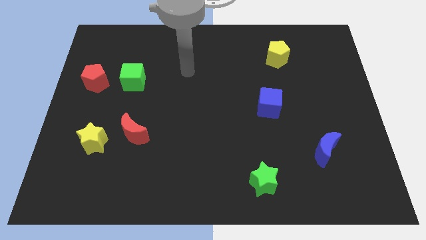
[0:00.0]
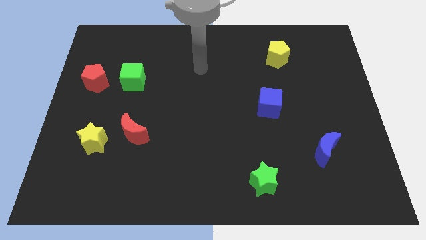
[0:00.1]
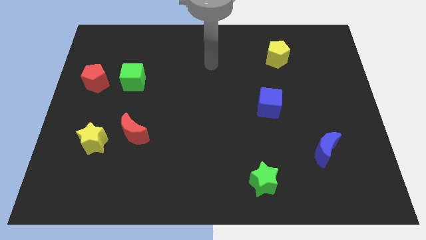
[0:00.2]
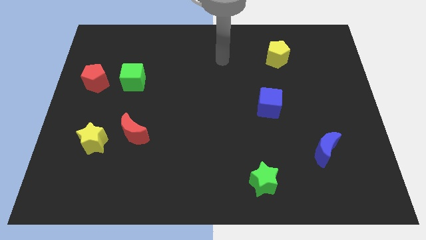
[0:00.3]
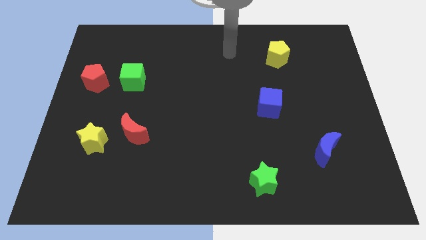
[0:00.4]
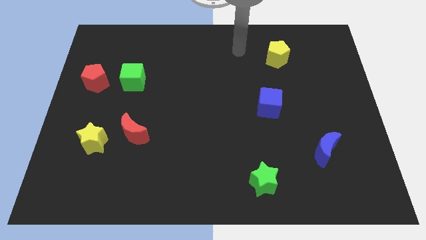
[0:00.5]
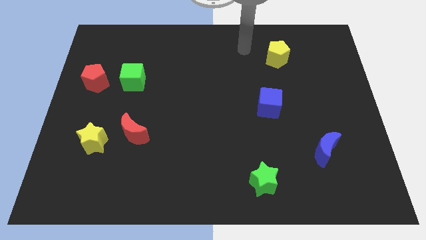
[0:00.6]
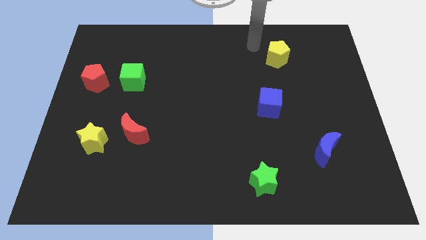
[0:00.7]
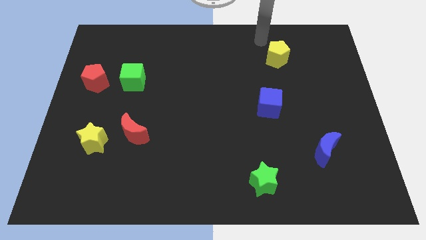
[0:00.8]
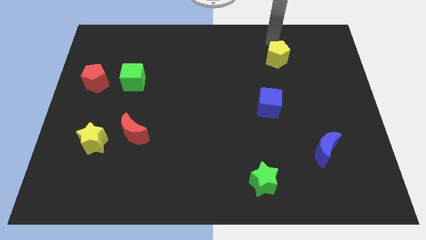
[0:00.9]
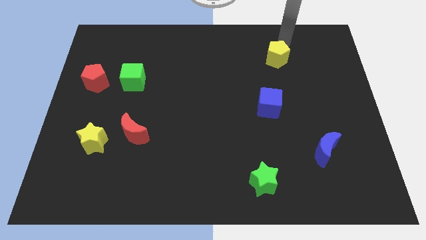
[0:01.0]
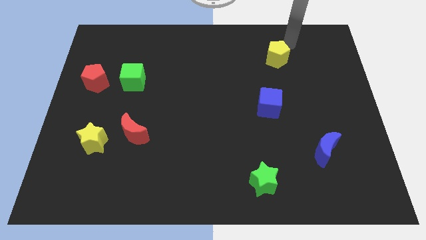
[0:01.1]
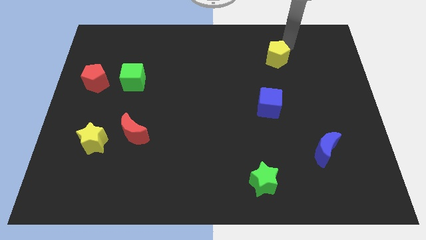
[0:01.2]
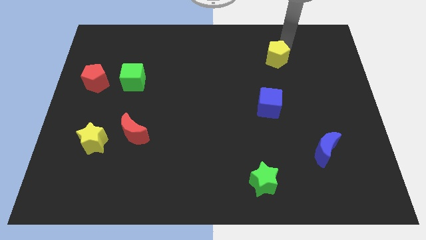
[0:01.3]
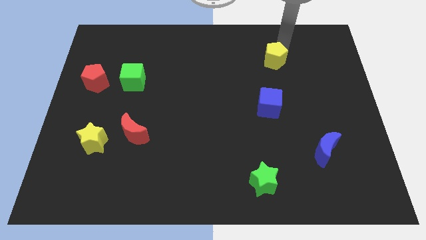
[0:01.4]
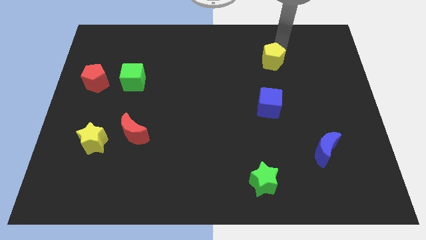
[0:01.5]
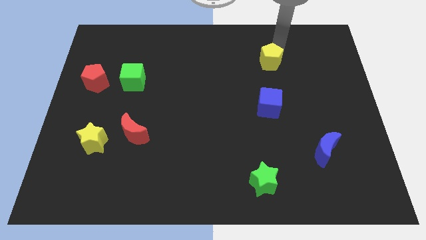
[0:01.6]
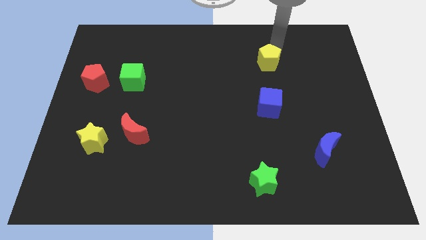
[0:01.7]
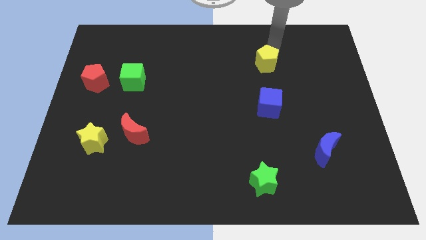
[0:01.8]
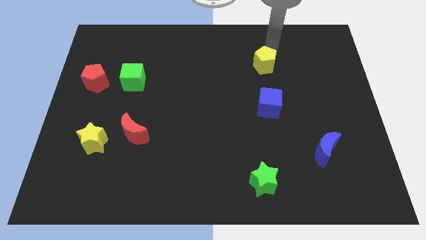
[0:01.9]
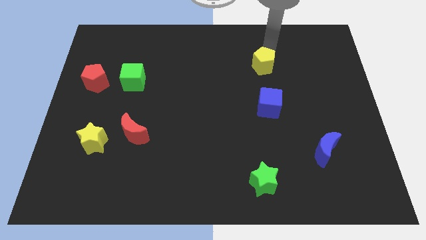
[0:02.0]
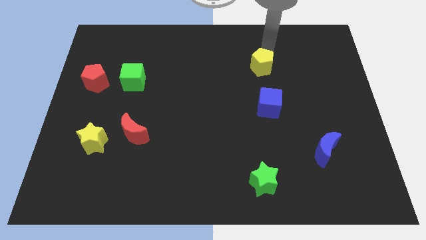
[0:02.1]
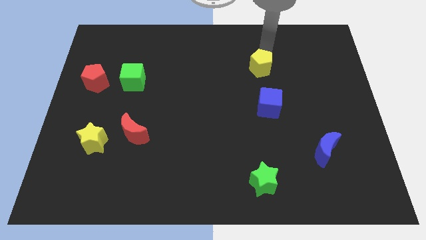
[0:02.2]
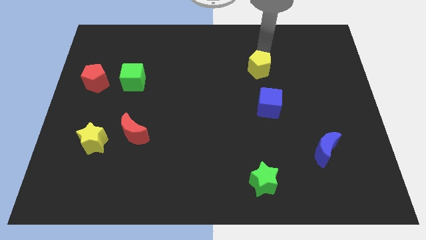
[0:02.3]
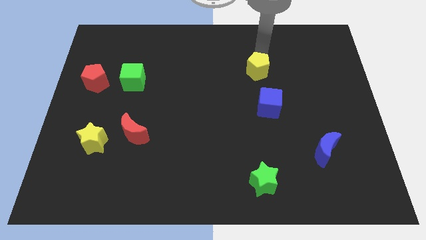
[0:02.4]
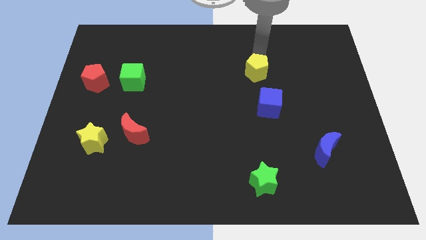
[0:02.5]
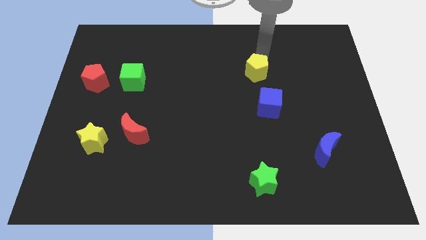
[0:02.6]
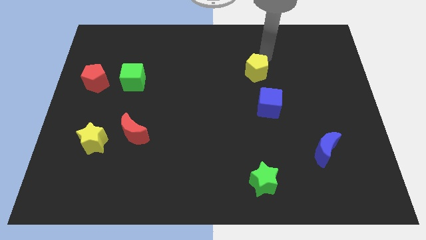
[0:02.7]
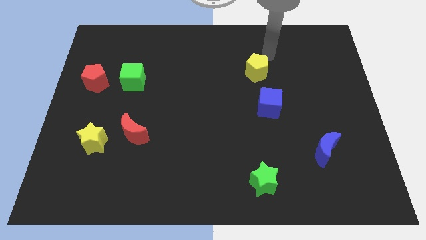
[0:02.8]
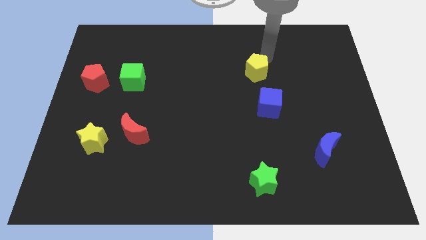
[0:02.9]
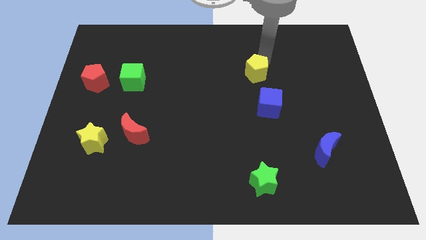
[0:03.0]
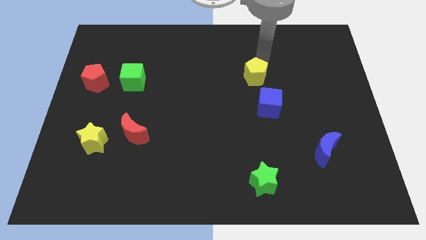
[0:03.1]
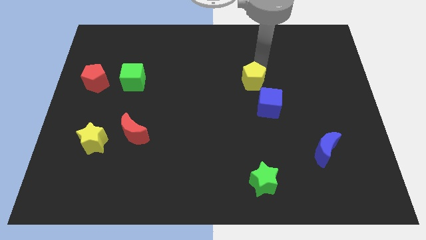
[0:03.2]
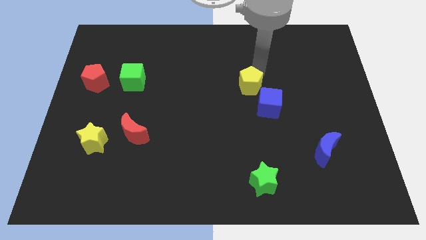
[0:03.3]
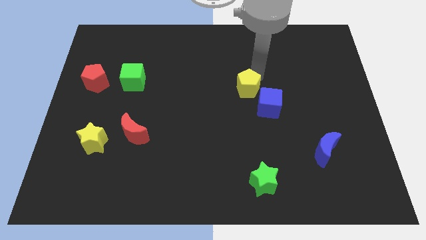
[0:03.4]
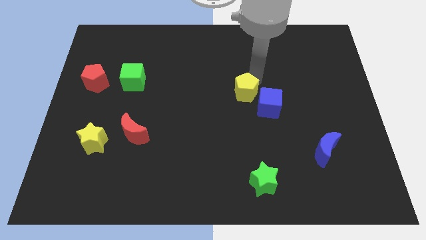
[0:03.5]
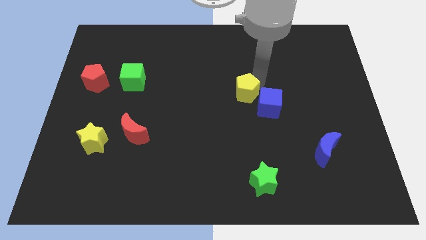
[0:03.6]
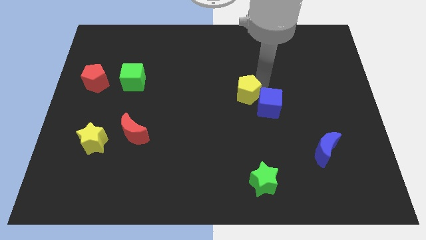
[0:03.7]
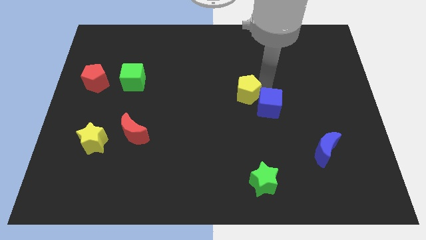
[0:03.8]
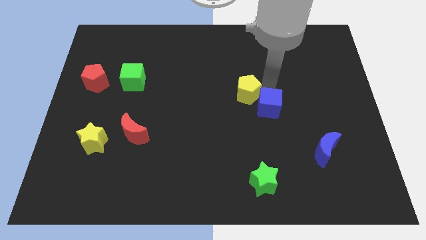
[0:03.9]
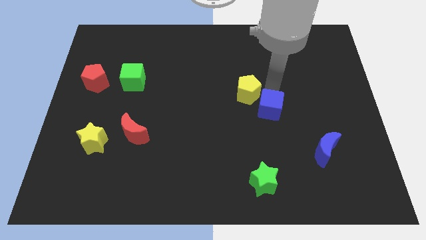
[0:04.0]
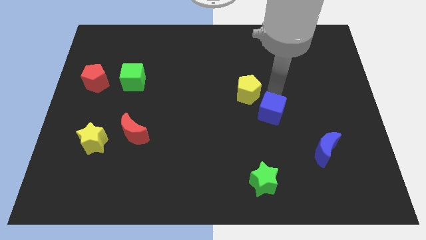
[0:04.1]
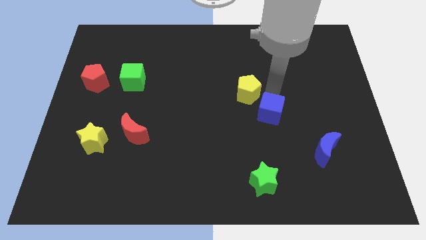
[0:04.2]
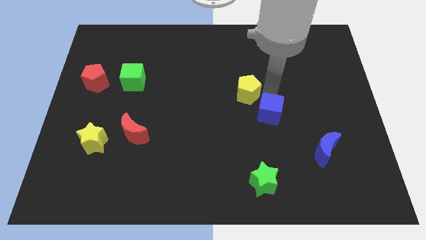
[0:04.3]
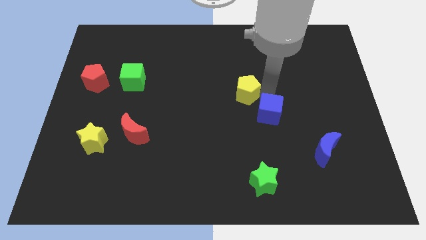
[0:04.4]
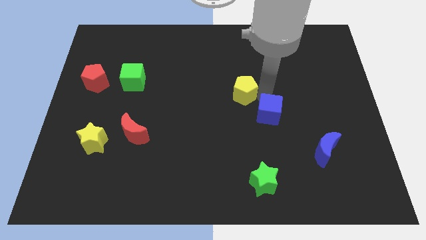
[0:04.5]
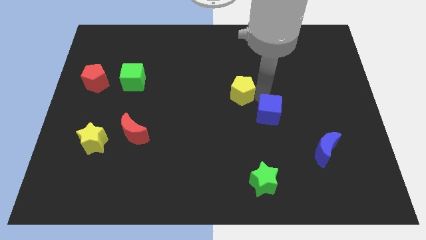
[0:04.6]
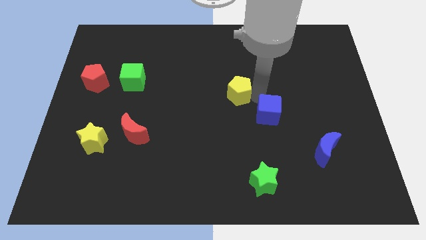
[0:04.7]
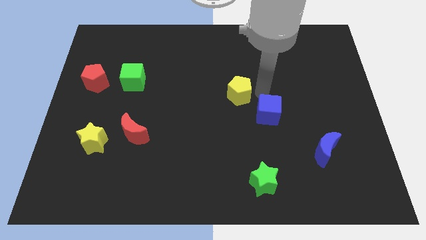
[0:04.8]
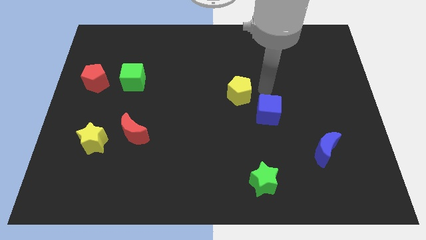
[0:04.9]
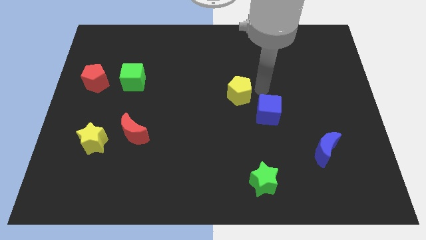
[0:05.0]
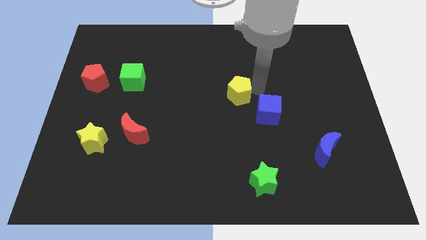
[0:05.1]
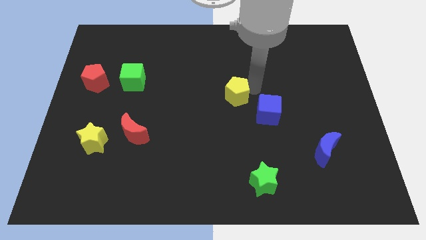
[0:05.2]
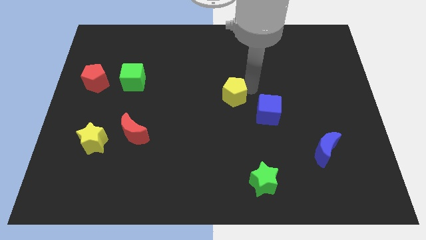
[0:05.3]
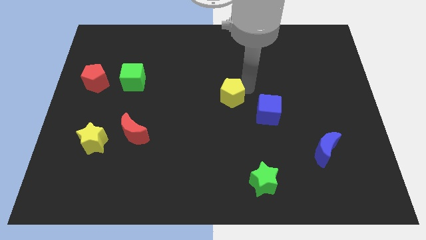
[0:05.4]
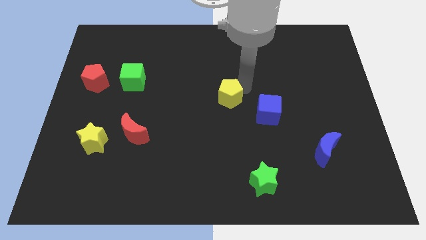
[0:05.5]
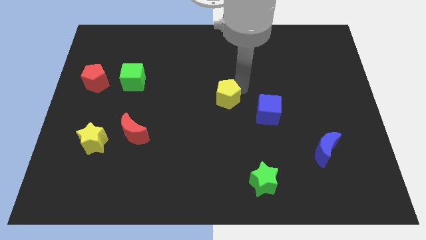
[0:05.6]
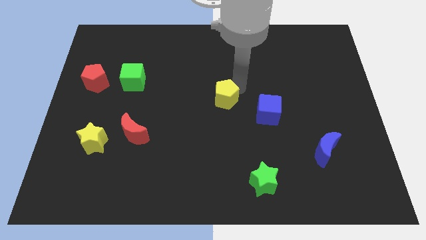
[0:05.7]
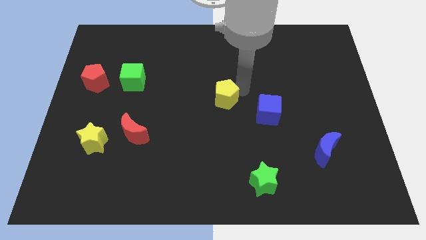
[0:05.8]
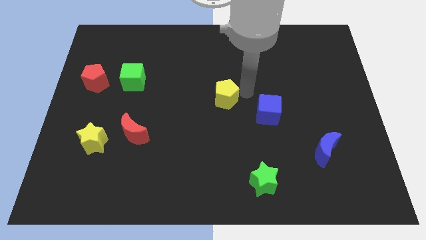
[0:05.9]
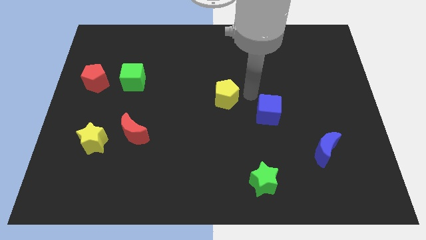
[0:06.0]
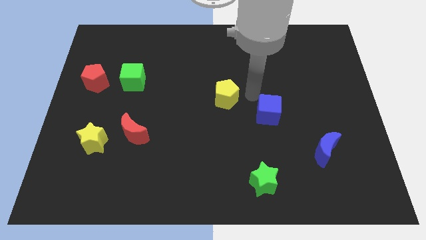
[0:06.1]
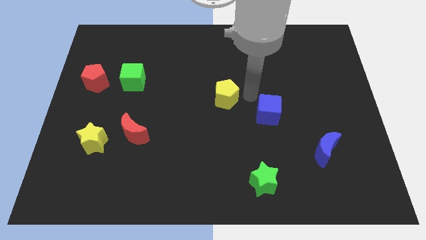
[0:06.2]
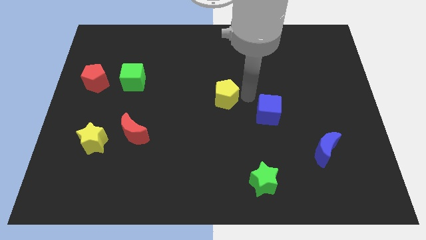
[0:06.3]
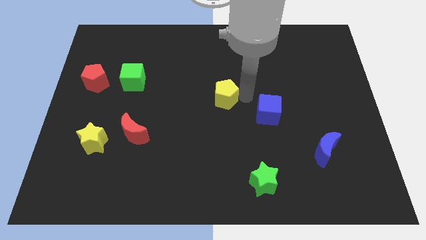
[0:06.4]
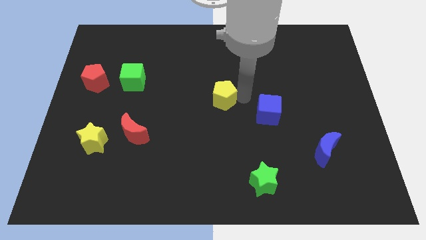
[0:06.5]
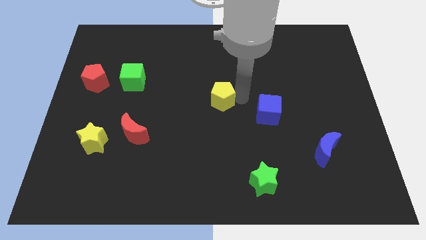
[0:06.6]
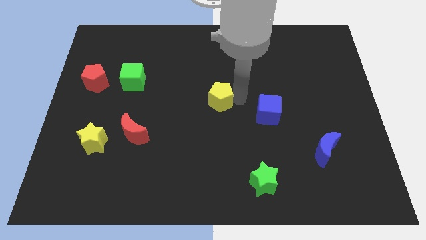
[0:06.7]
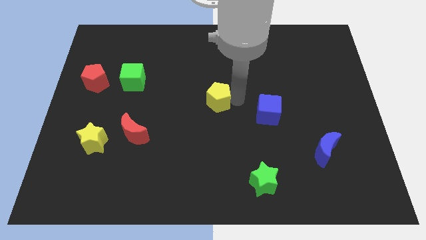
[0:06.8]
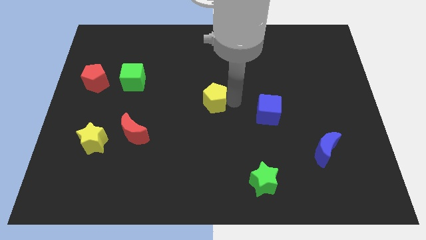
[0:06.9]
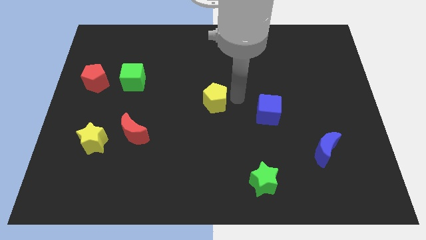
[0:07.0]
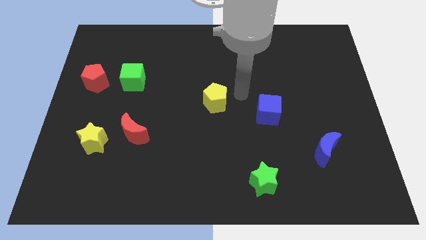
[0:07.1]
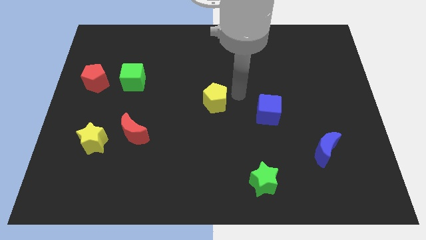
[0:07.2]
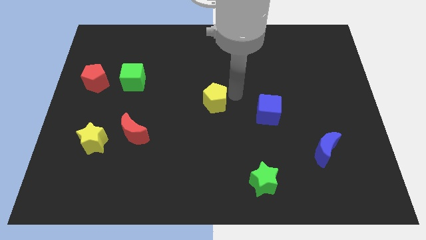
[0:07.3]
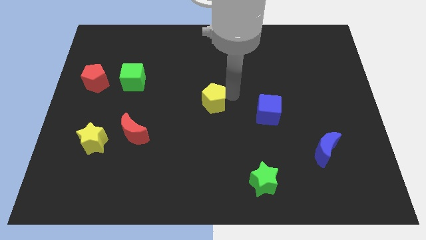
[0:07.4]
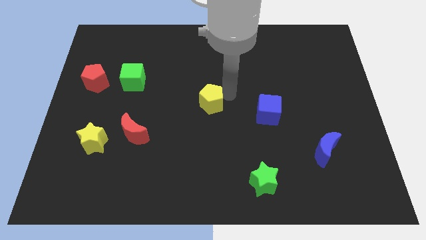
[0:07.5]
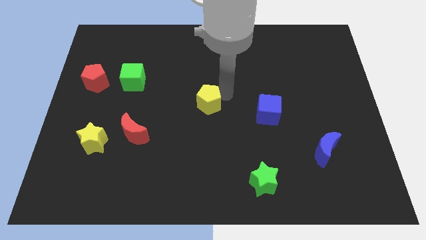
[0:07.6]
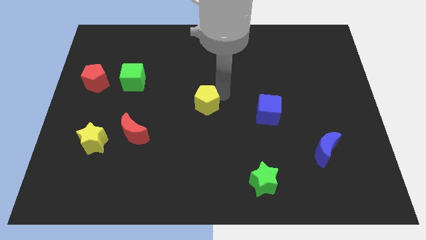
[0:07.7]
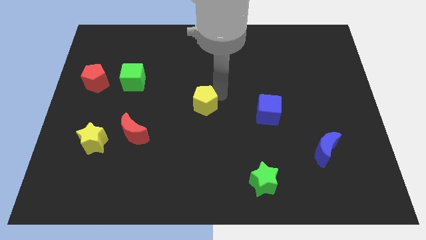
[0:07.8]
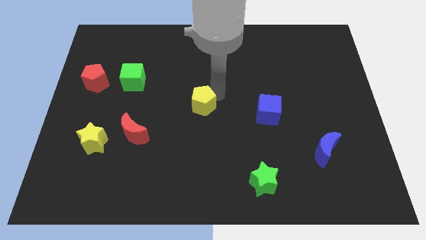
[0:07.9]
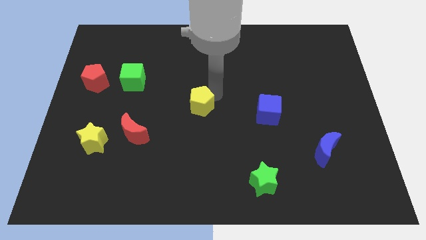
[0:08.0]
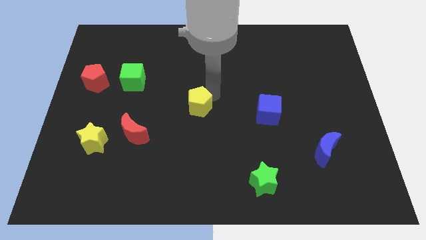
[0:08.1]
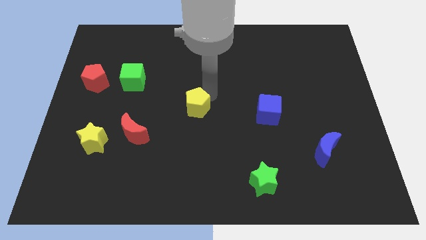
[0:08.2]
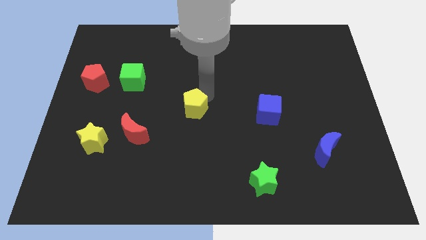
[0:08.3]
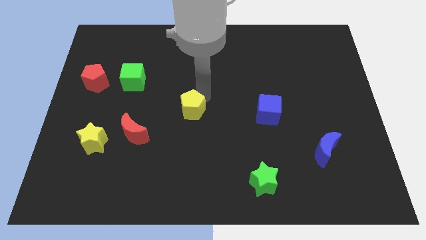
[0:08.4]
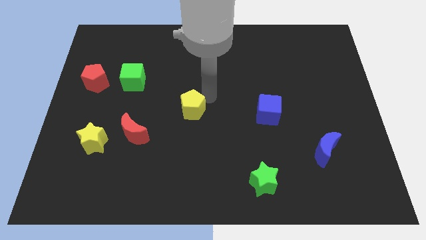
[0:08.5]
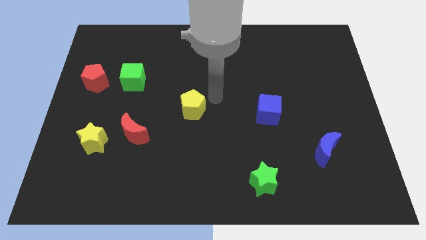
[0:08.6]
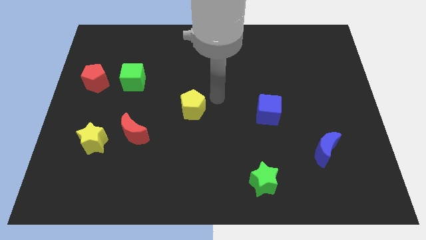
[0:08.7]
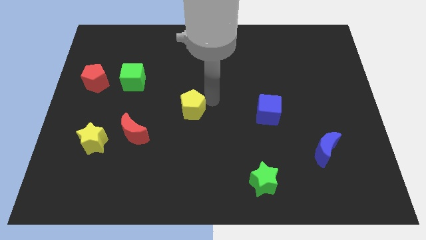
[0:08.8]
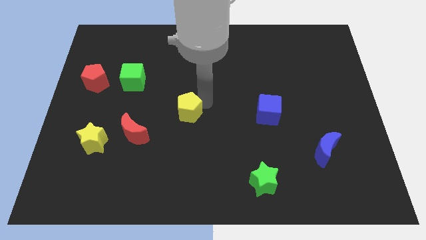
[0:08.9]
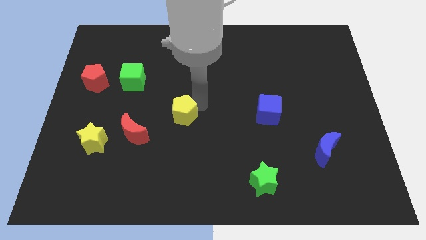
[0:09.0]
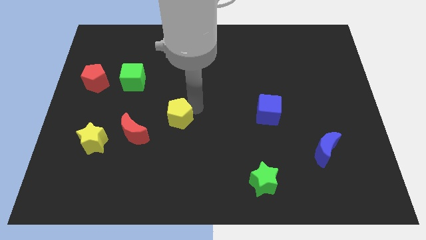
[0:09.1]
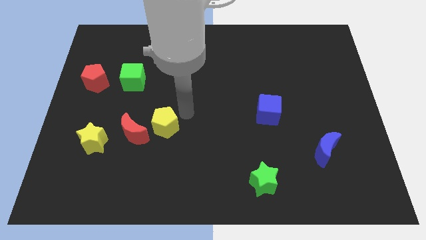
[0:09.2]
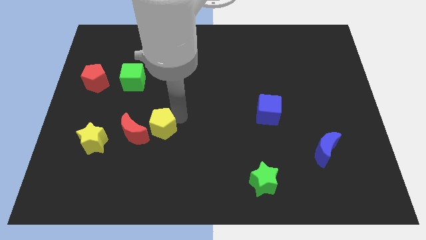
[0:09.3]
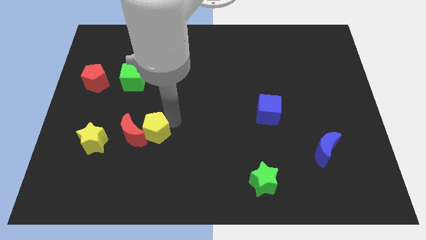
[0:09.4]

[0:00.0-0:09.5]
slide the yellow pentagon towards the red moon
